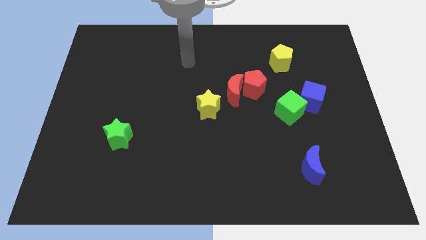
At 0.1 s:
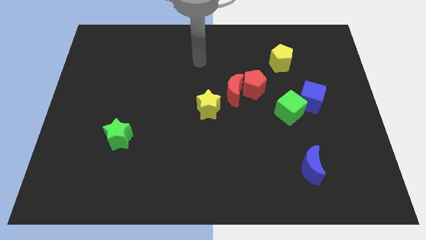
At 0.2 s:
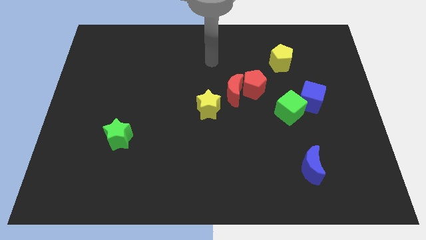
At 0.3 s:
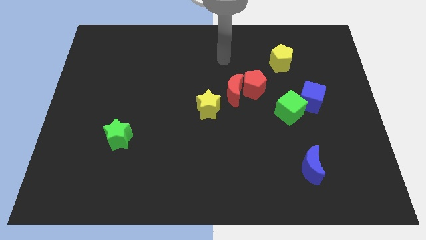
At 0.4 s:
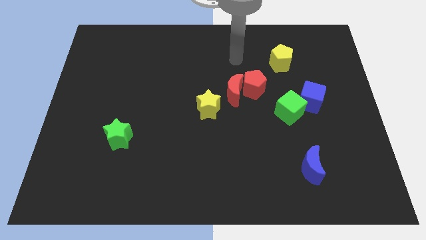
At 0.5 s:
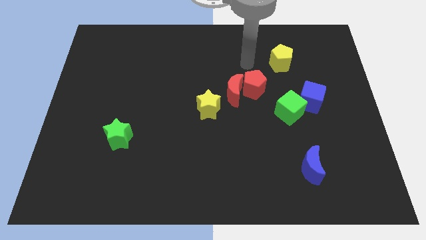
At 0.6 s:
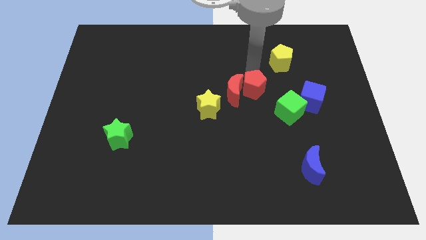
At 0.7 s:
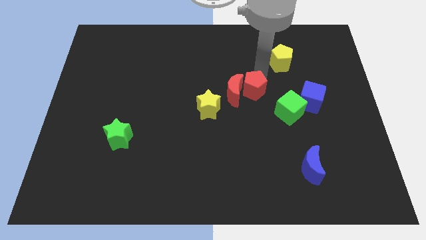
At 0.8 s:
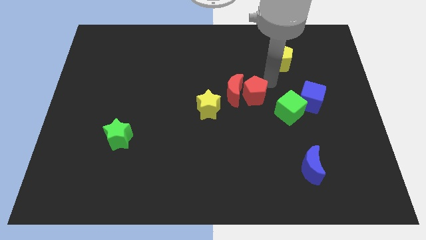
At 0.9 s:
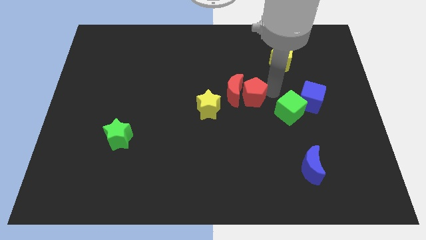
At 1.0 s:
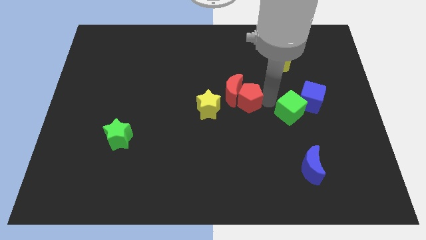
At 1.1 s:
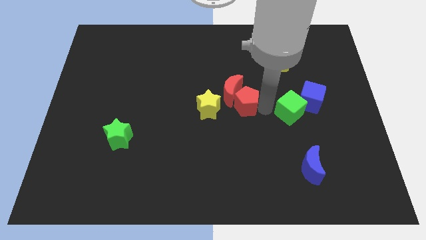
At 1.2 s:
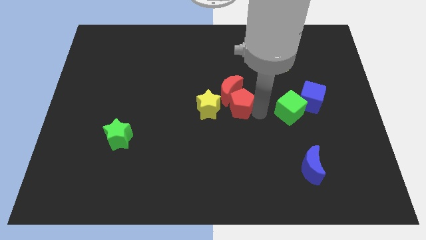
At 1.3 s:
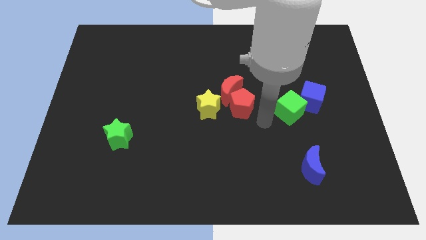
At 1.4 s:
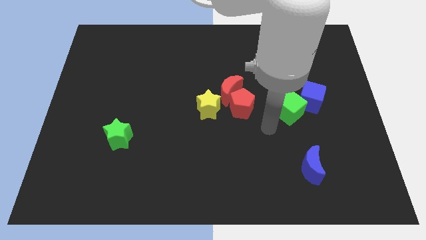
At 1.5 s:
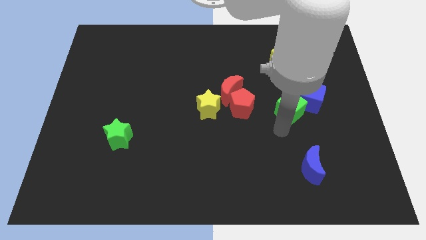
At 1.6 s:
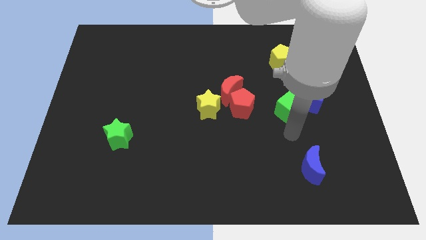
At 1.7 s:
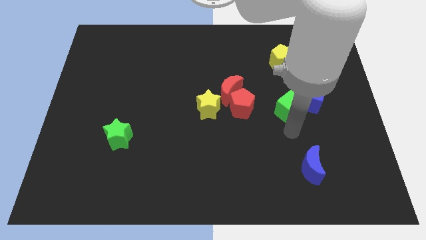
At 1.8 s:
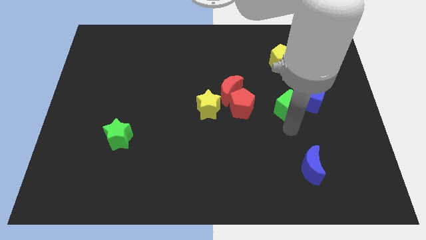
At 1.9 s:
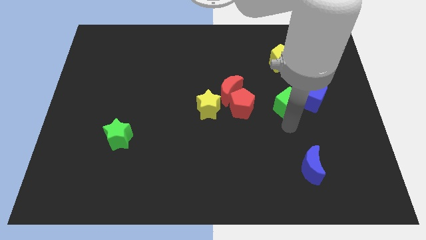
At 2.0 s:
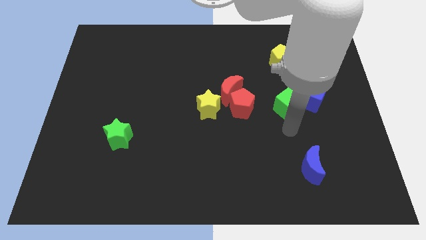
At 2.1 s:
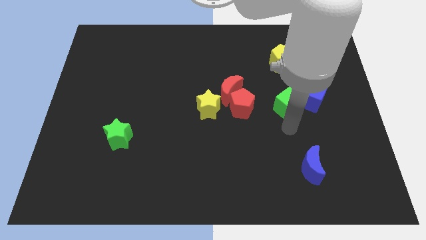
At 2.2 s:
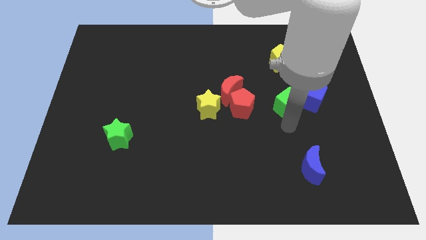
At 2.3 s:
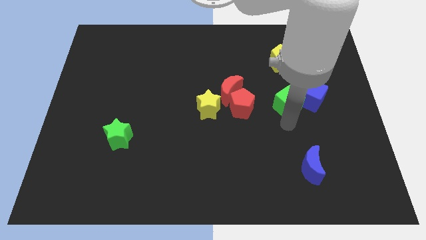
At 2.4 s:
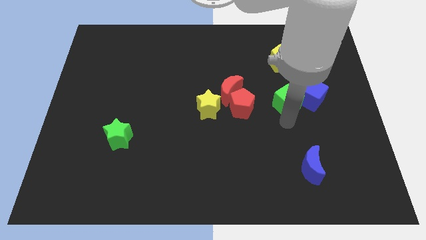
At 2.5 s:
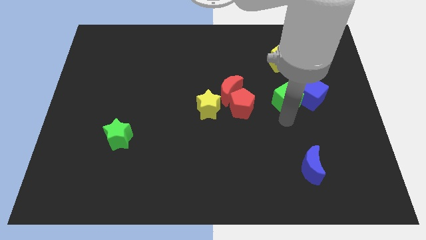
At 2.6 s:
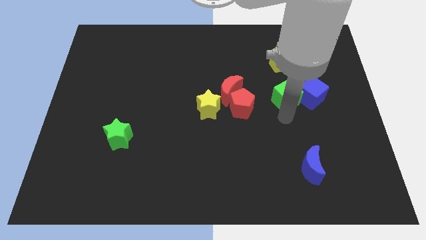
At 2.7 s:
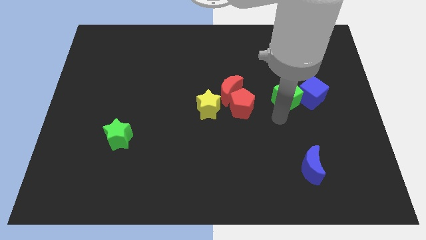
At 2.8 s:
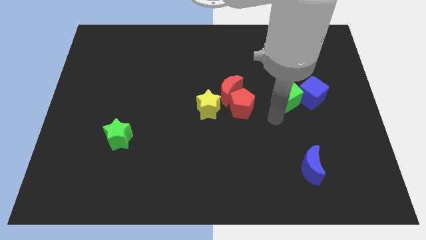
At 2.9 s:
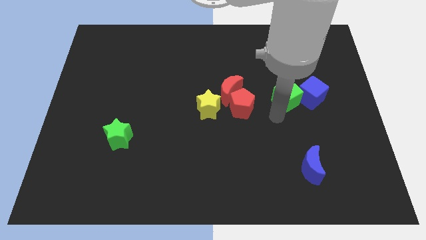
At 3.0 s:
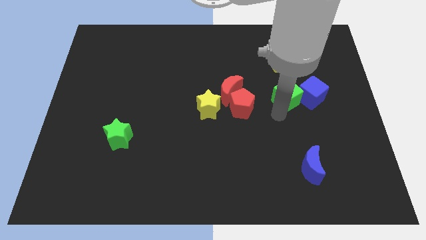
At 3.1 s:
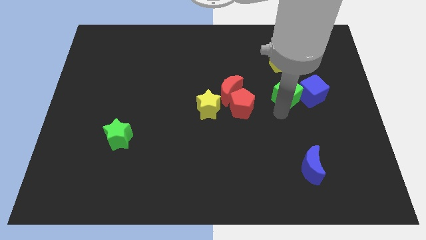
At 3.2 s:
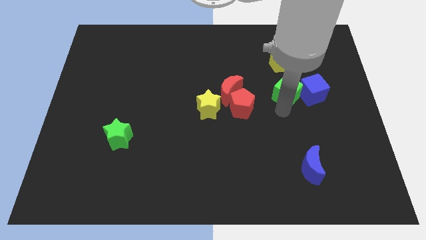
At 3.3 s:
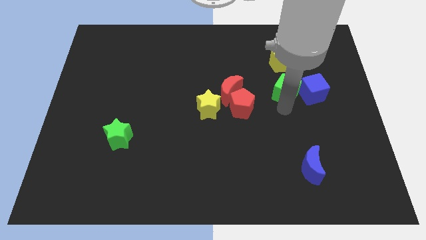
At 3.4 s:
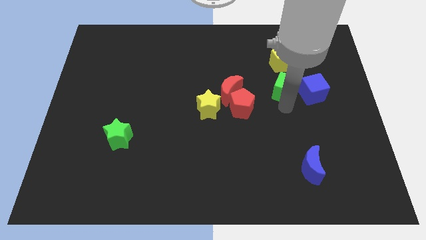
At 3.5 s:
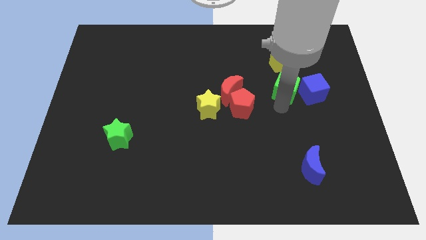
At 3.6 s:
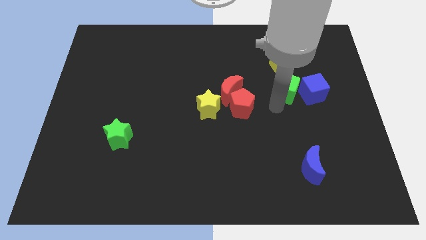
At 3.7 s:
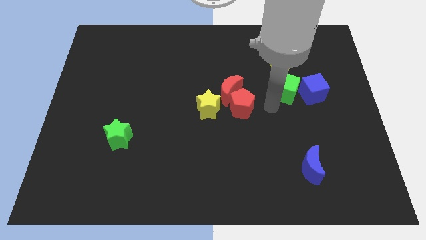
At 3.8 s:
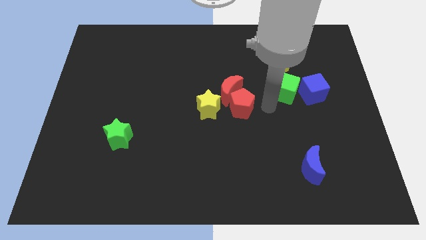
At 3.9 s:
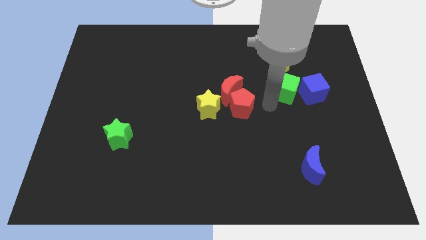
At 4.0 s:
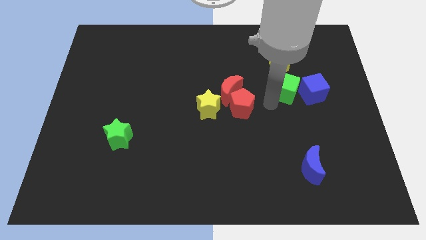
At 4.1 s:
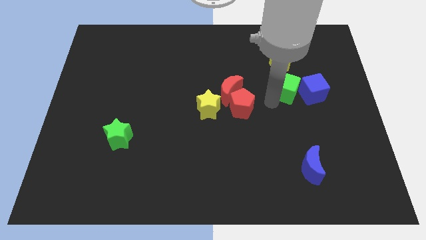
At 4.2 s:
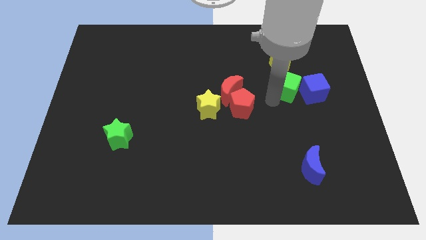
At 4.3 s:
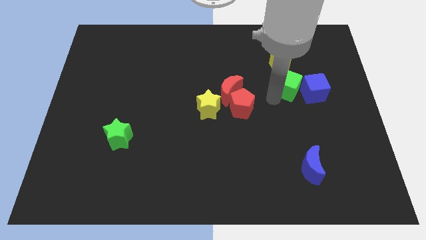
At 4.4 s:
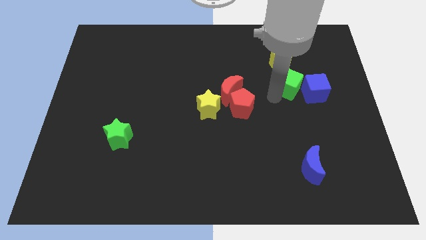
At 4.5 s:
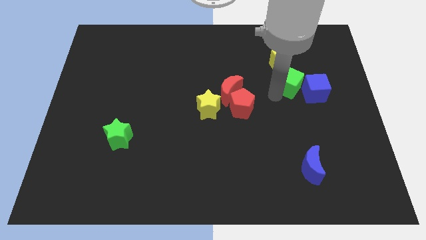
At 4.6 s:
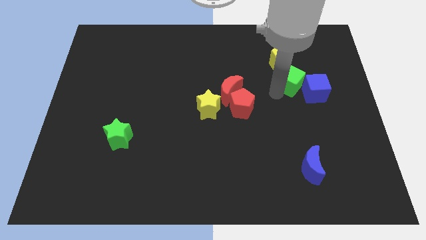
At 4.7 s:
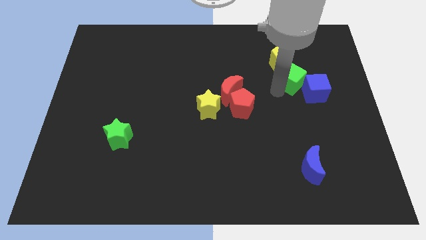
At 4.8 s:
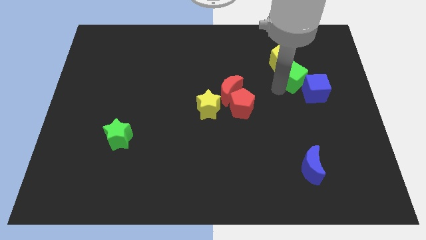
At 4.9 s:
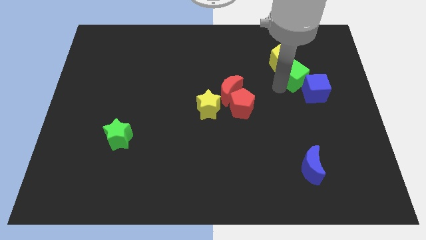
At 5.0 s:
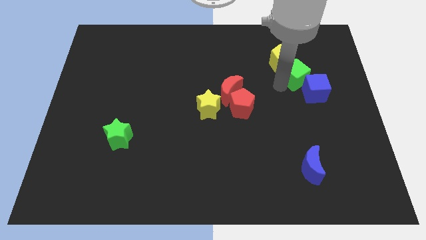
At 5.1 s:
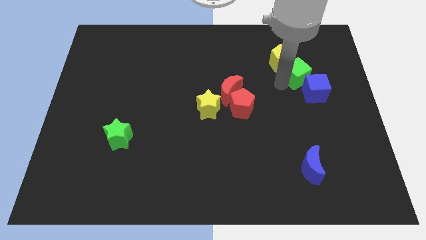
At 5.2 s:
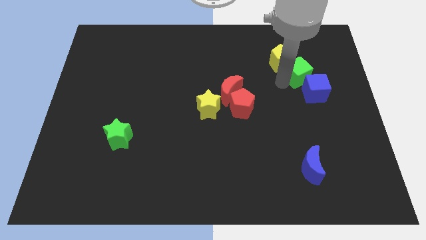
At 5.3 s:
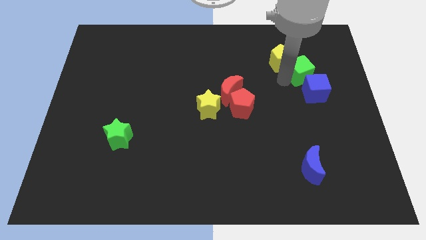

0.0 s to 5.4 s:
move the green cube right of the yellow pentagon

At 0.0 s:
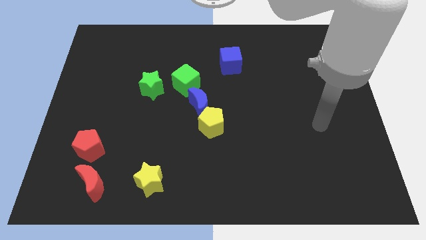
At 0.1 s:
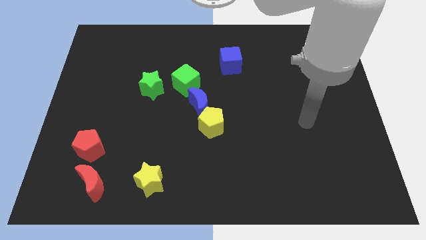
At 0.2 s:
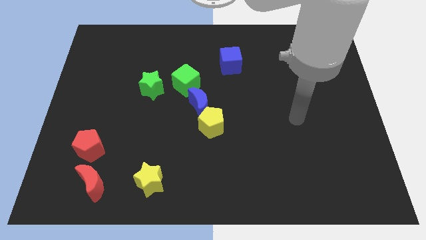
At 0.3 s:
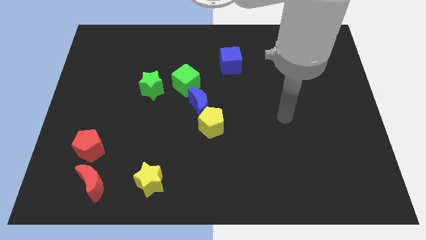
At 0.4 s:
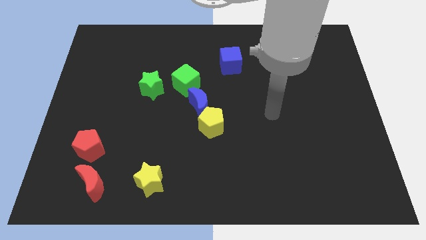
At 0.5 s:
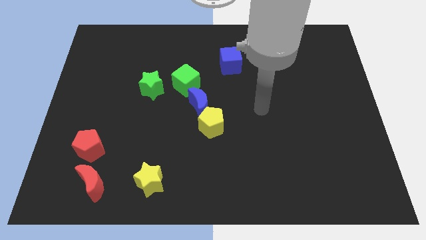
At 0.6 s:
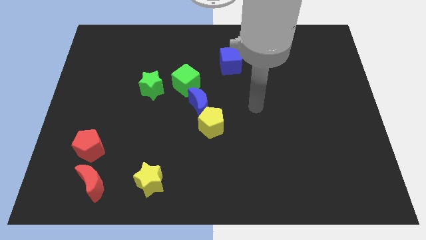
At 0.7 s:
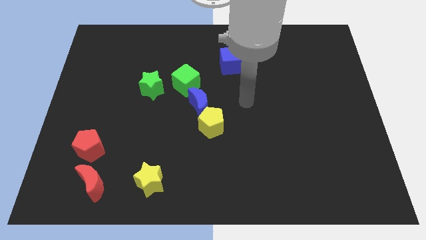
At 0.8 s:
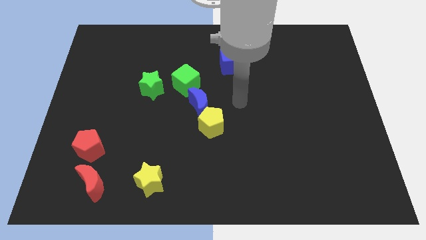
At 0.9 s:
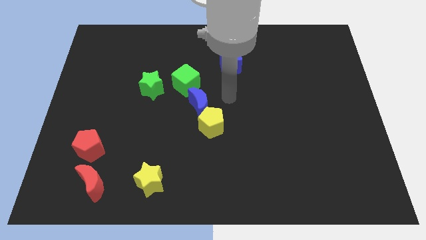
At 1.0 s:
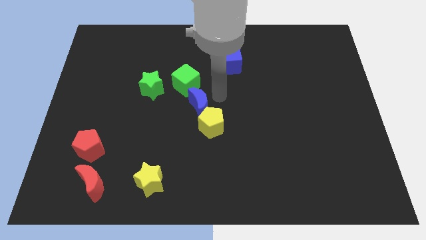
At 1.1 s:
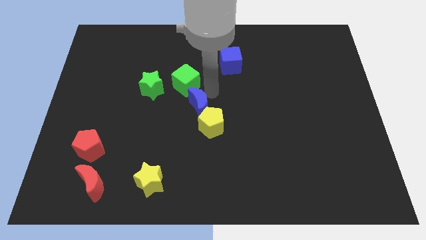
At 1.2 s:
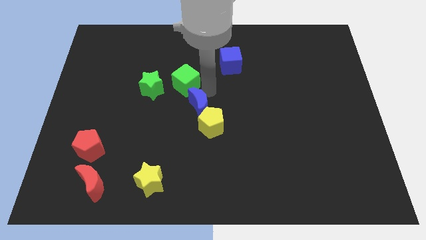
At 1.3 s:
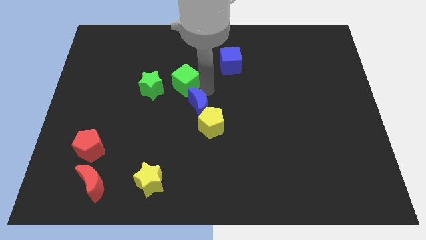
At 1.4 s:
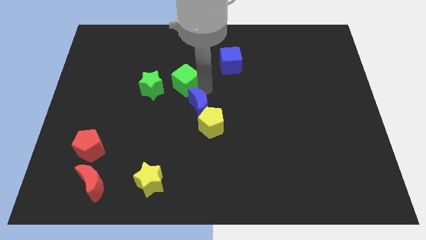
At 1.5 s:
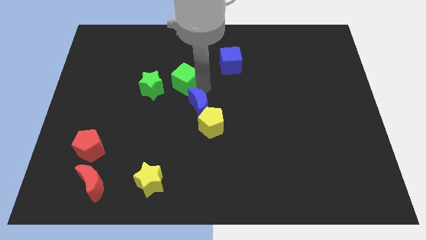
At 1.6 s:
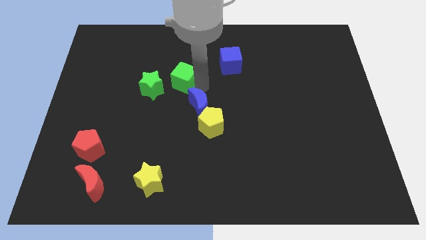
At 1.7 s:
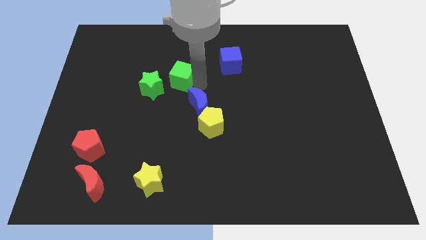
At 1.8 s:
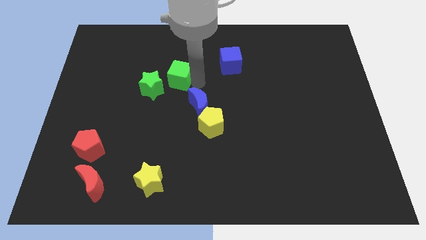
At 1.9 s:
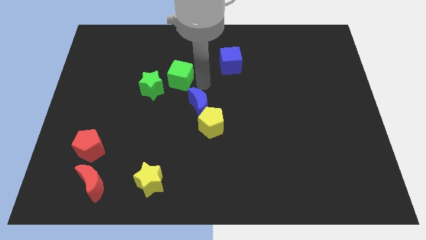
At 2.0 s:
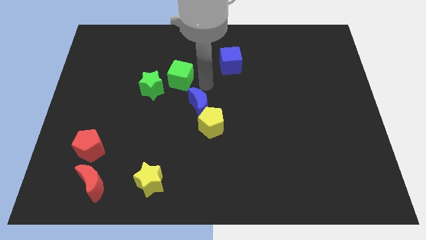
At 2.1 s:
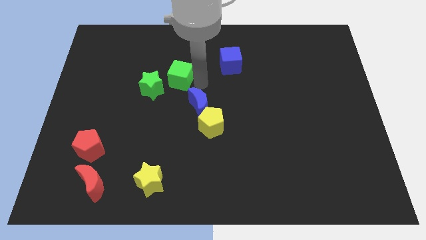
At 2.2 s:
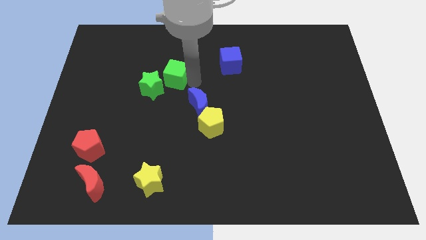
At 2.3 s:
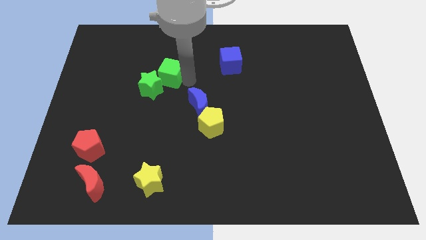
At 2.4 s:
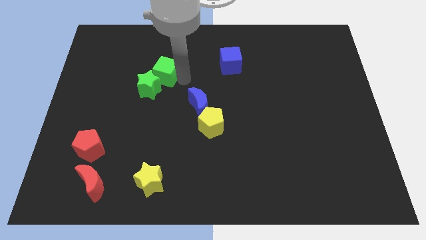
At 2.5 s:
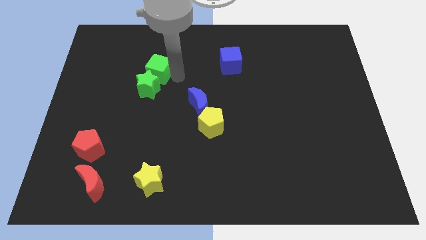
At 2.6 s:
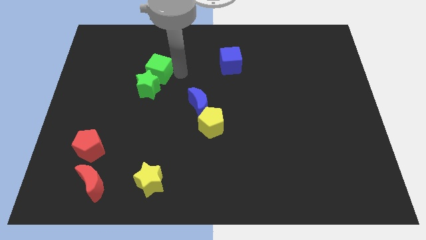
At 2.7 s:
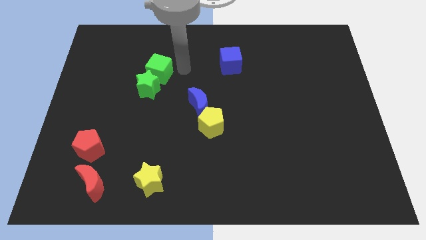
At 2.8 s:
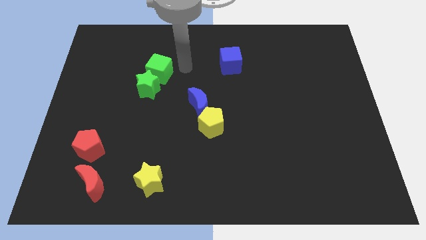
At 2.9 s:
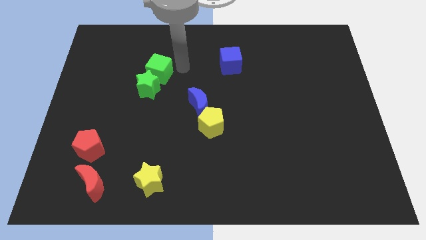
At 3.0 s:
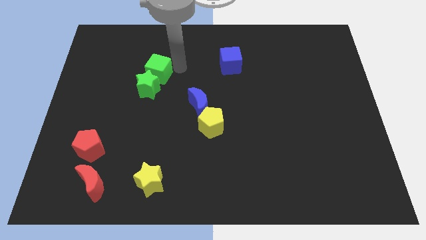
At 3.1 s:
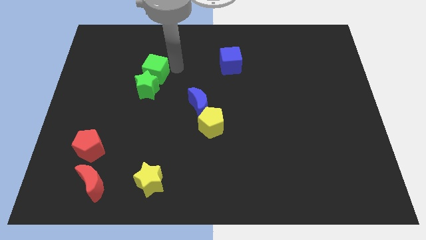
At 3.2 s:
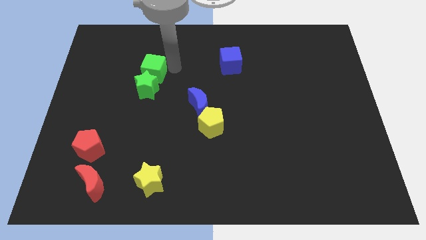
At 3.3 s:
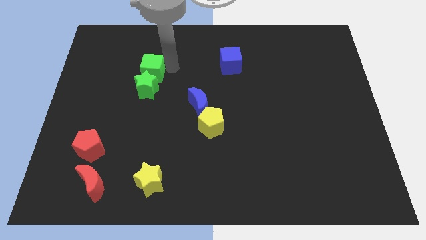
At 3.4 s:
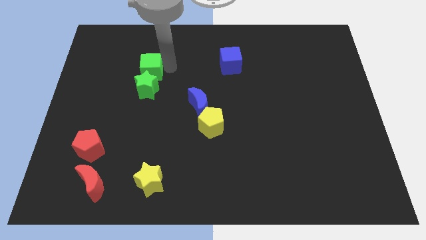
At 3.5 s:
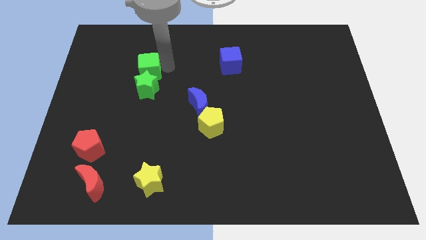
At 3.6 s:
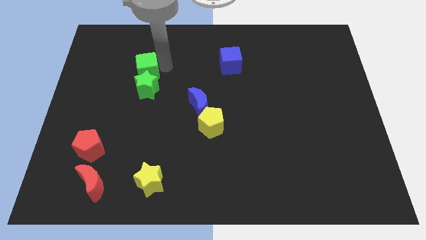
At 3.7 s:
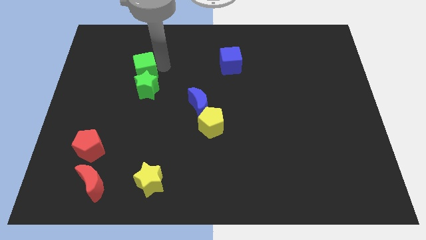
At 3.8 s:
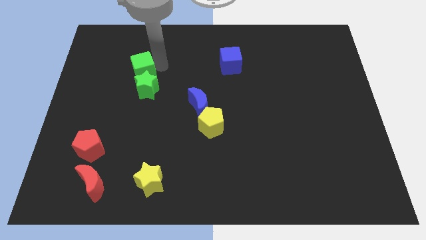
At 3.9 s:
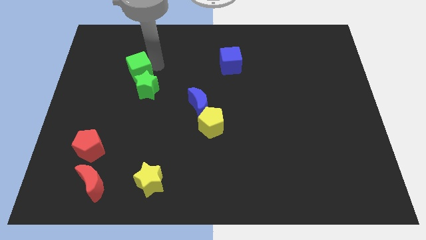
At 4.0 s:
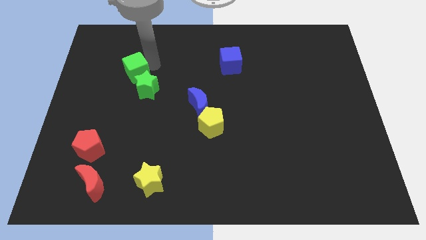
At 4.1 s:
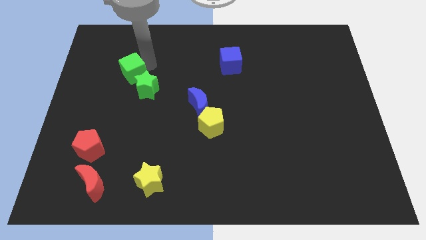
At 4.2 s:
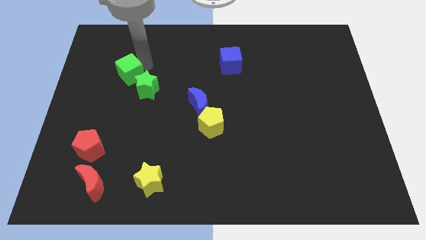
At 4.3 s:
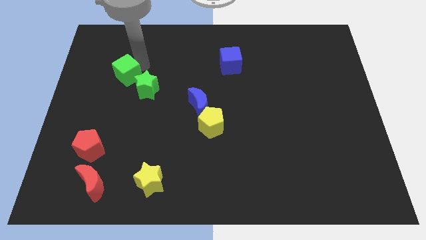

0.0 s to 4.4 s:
slide the green cube left of the green star
